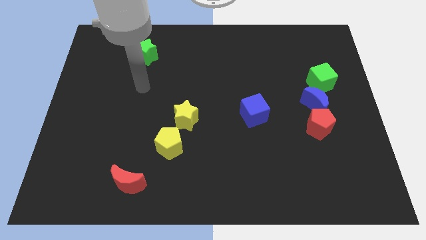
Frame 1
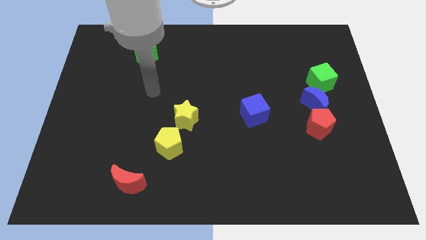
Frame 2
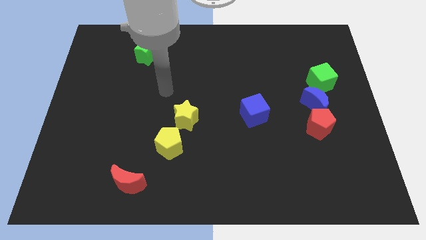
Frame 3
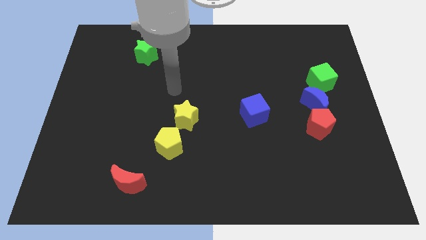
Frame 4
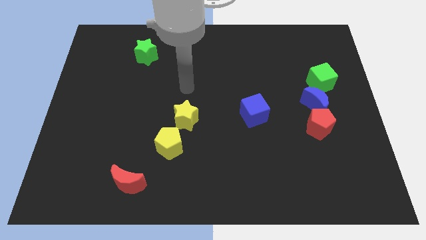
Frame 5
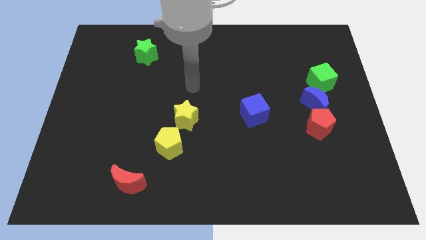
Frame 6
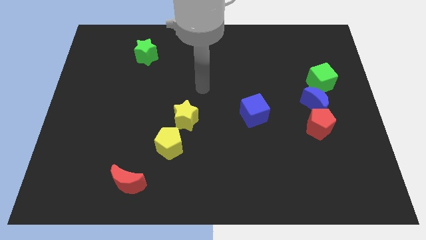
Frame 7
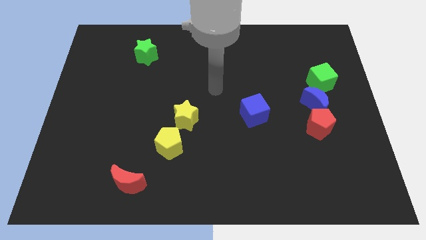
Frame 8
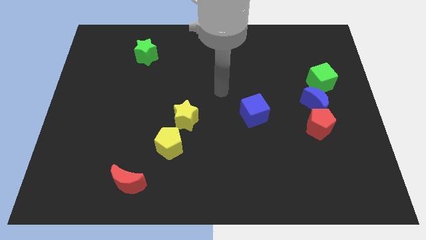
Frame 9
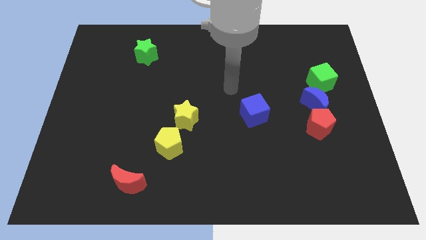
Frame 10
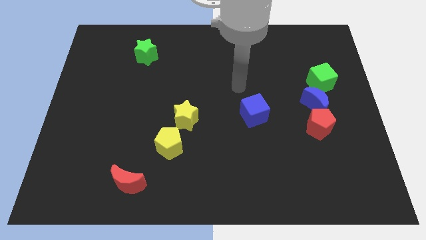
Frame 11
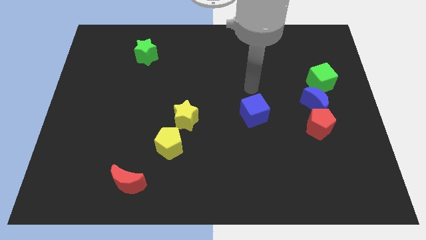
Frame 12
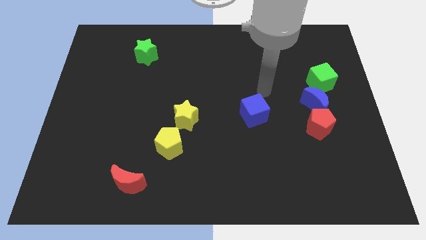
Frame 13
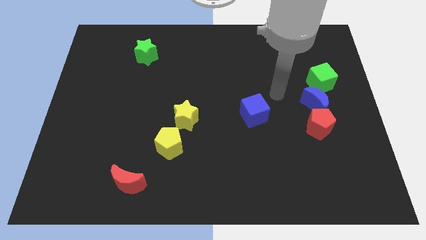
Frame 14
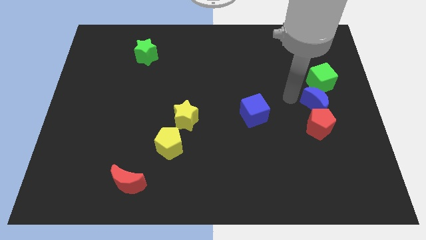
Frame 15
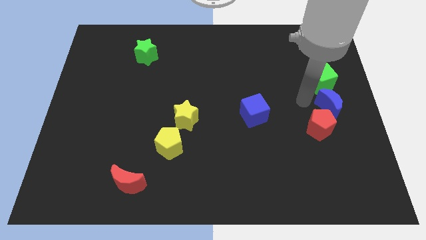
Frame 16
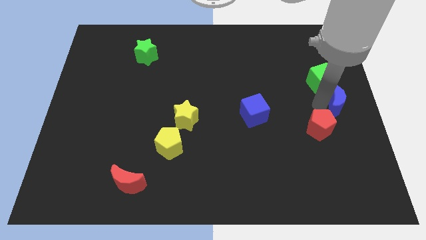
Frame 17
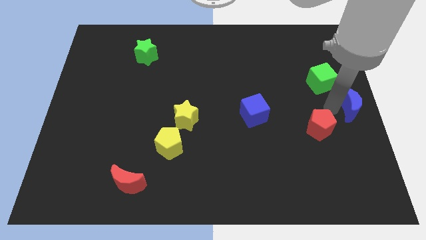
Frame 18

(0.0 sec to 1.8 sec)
pull the red pentagon apart from the blue moon

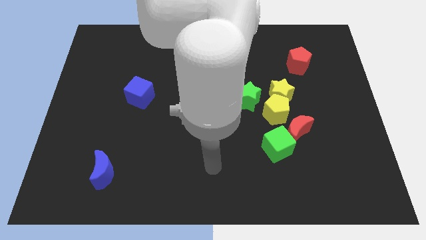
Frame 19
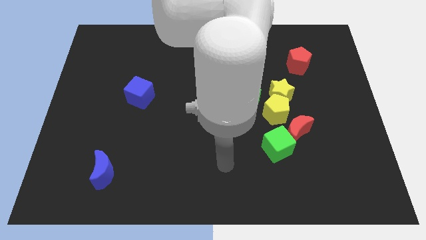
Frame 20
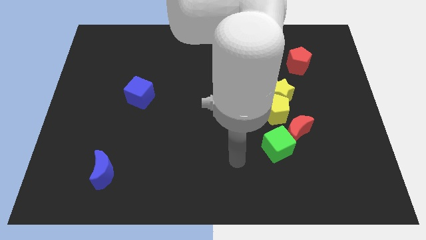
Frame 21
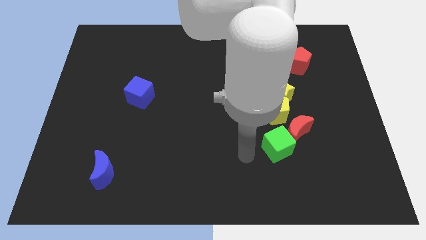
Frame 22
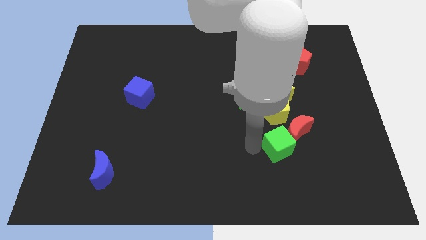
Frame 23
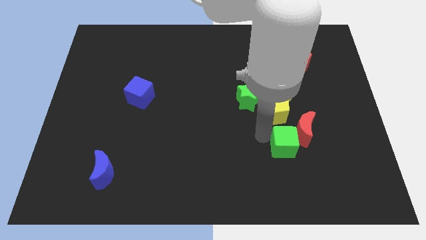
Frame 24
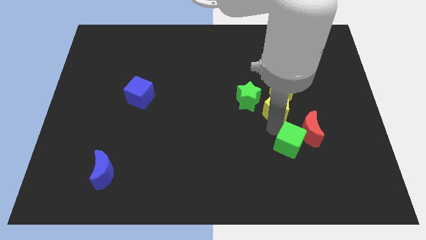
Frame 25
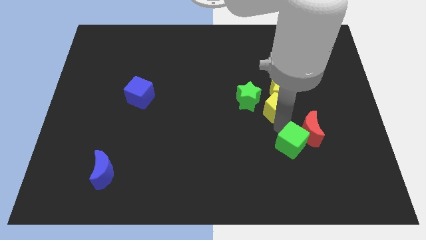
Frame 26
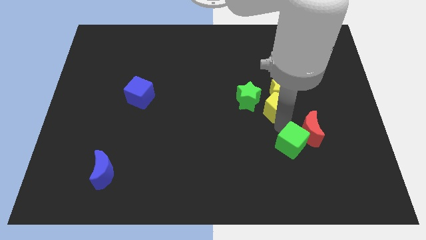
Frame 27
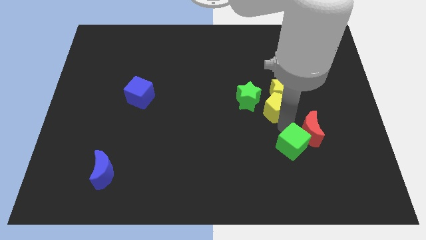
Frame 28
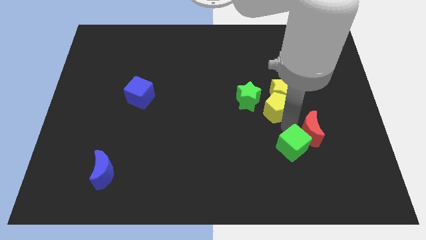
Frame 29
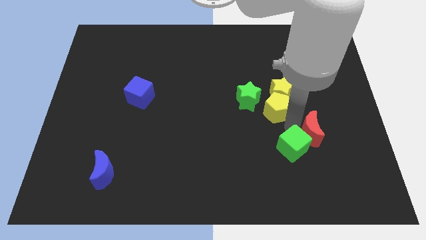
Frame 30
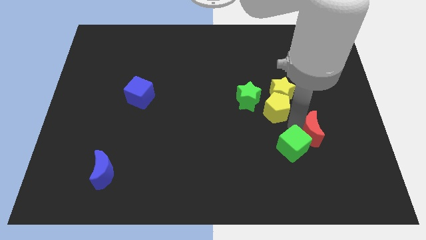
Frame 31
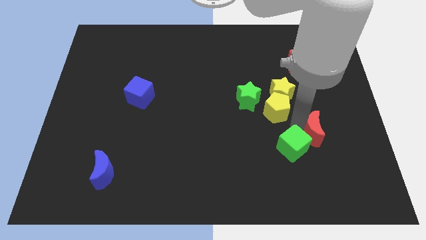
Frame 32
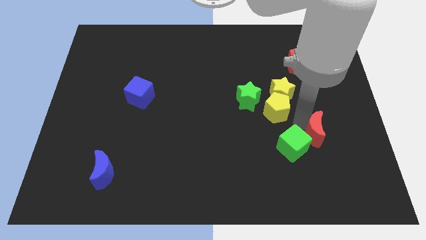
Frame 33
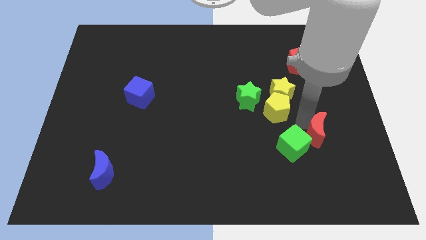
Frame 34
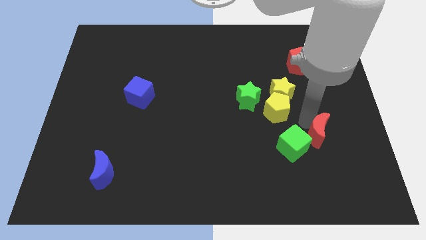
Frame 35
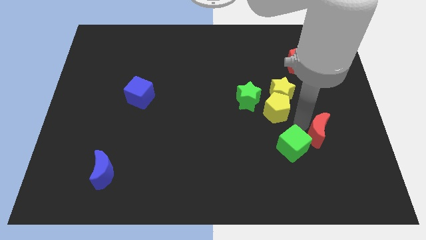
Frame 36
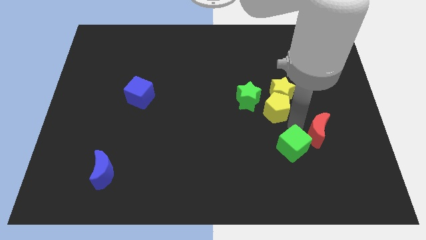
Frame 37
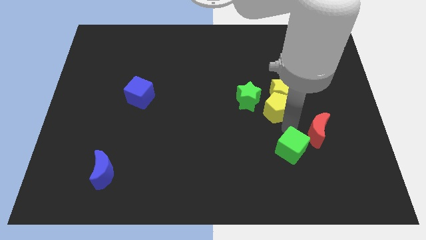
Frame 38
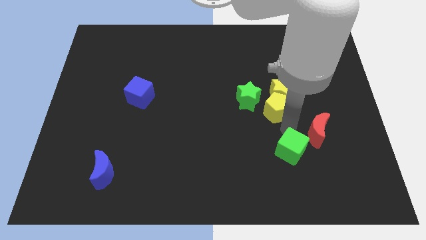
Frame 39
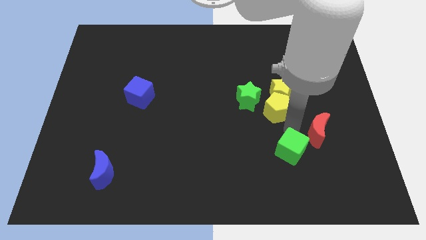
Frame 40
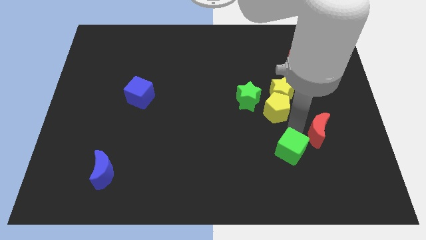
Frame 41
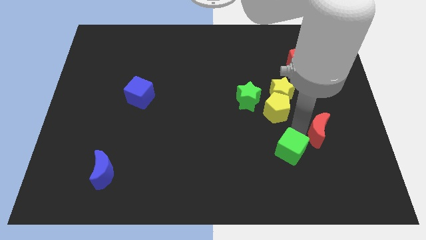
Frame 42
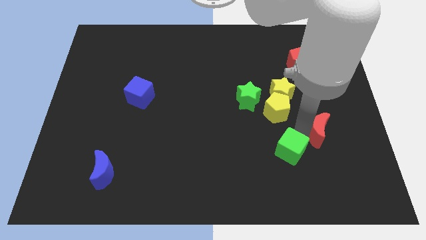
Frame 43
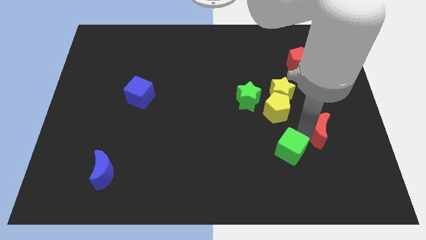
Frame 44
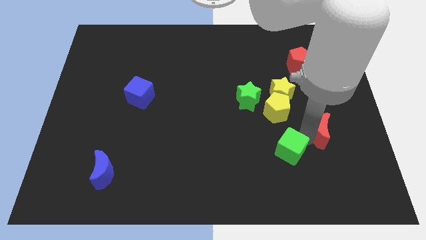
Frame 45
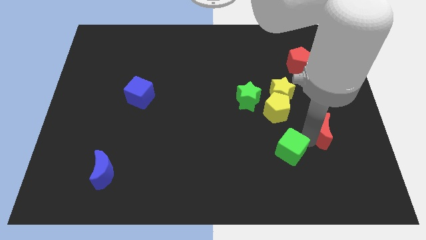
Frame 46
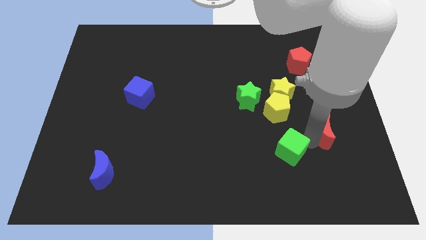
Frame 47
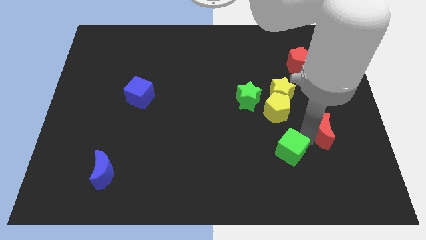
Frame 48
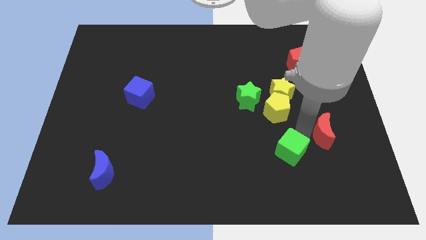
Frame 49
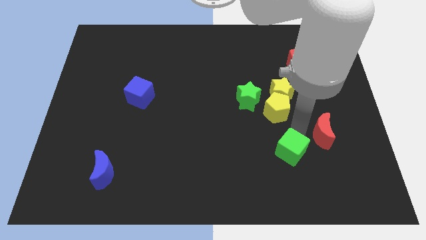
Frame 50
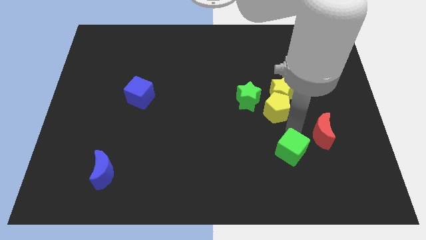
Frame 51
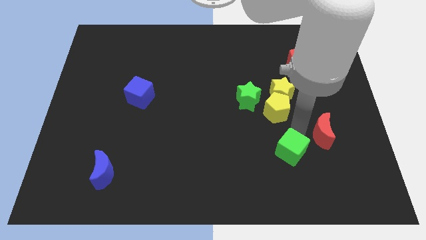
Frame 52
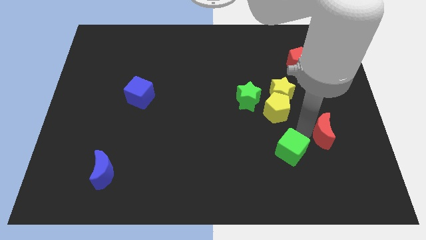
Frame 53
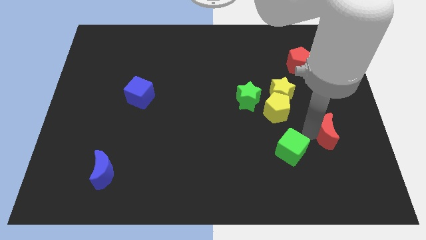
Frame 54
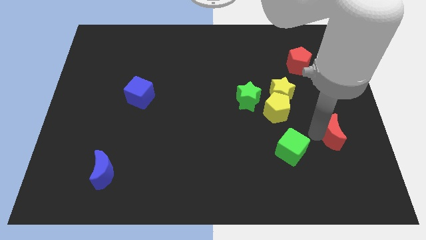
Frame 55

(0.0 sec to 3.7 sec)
move the red moon away from the green cube and yellow pentagon

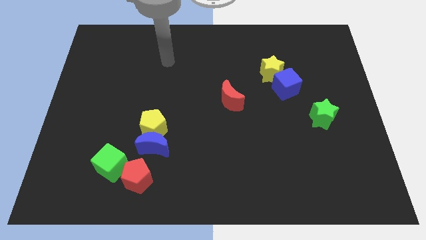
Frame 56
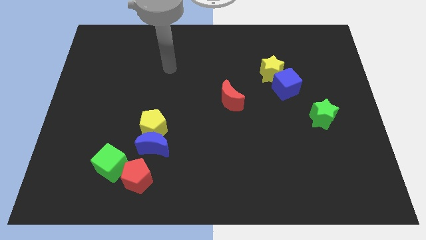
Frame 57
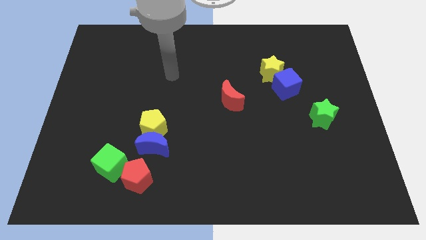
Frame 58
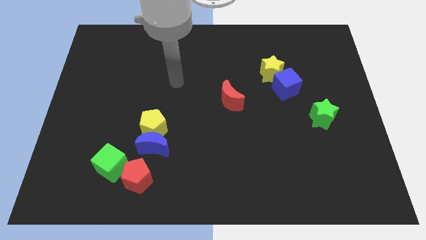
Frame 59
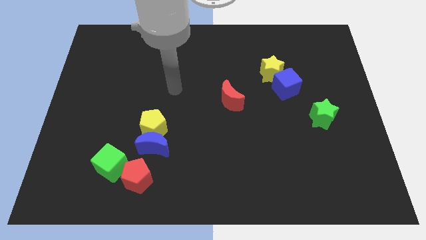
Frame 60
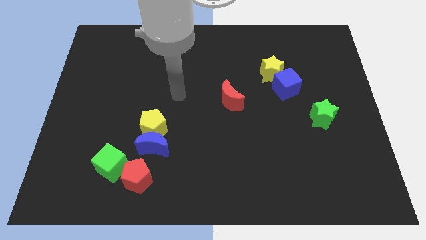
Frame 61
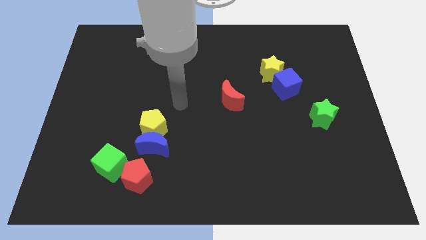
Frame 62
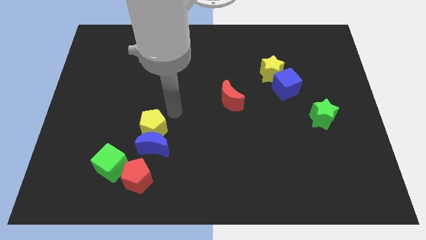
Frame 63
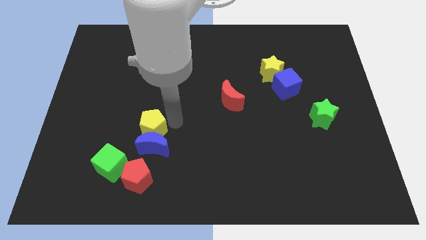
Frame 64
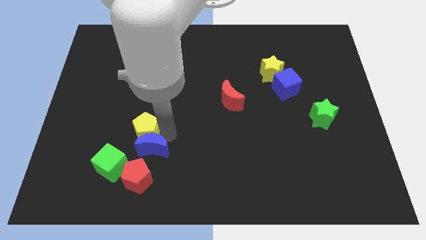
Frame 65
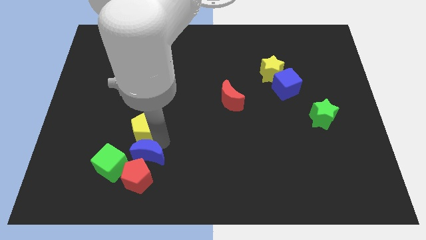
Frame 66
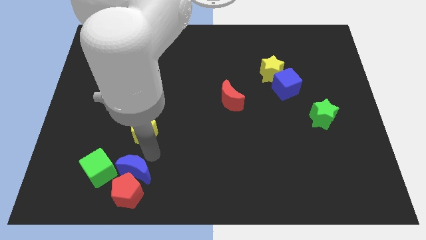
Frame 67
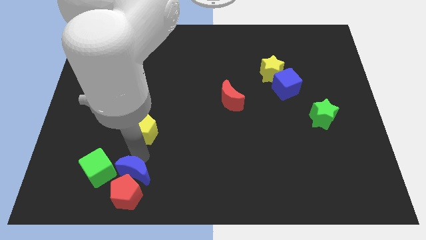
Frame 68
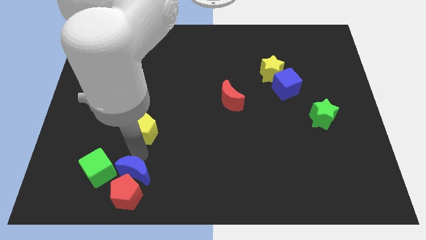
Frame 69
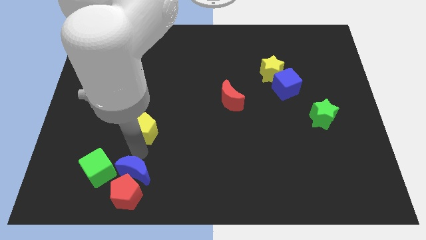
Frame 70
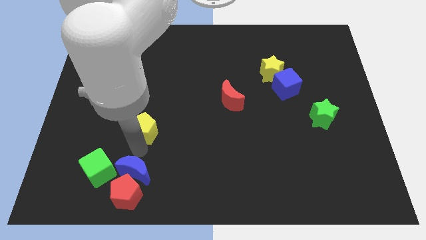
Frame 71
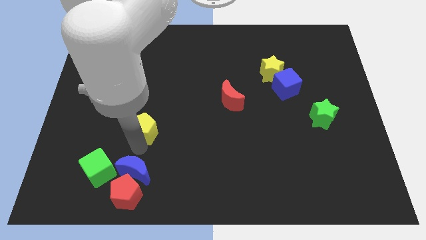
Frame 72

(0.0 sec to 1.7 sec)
separate the yellow pentagon from the blue moon

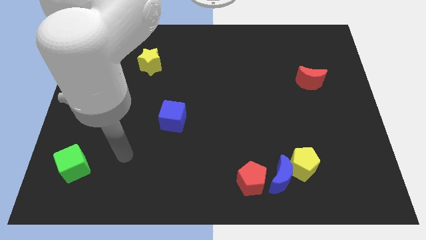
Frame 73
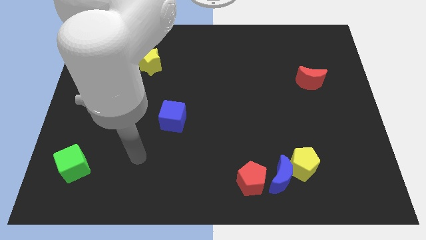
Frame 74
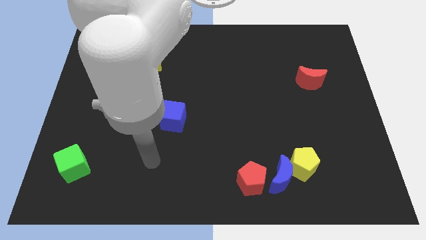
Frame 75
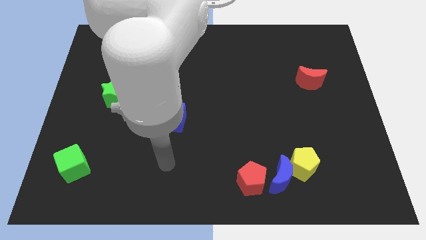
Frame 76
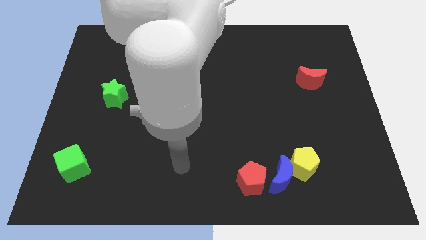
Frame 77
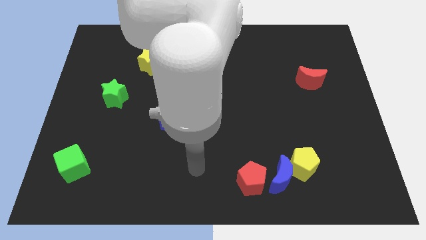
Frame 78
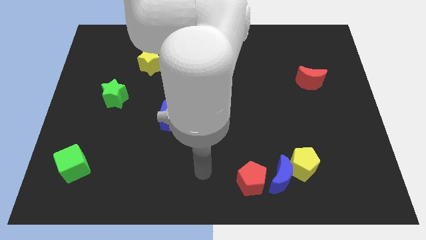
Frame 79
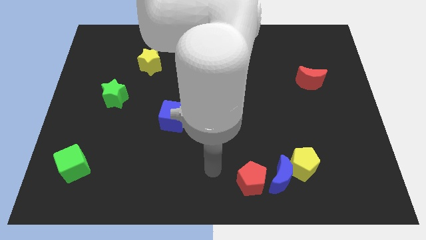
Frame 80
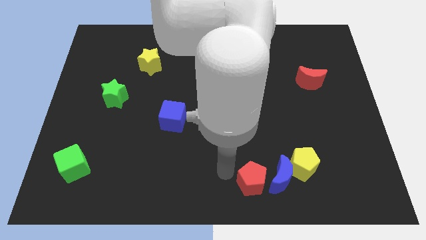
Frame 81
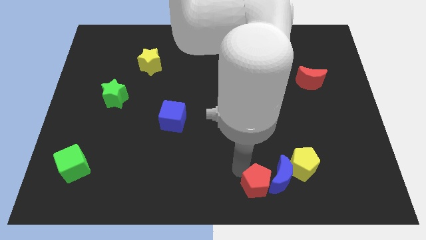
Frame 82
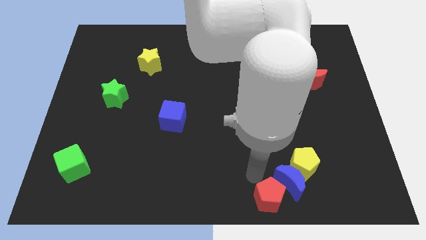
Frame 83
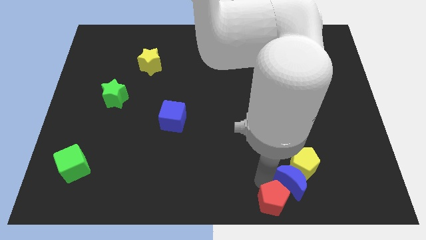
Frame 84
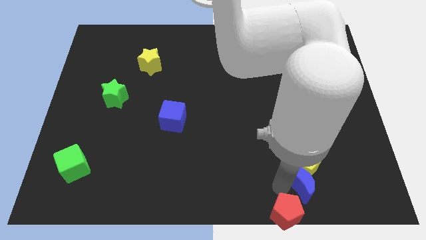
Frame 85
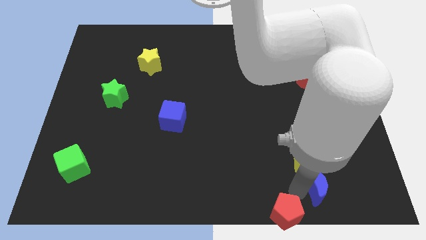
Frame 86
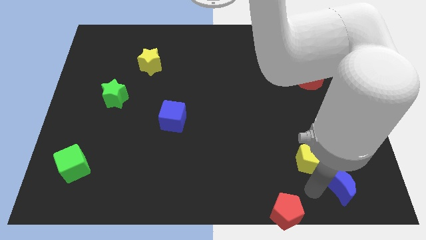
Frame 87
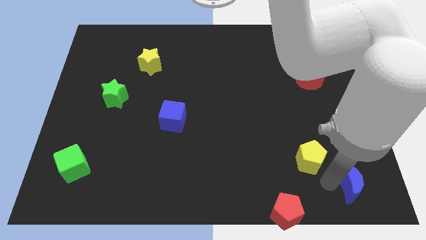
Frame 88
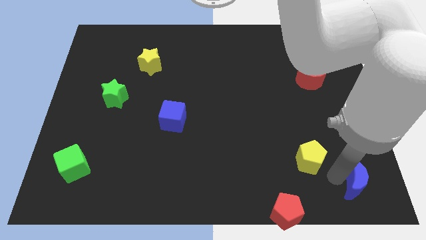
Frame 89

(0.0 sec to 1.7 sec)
move the yellow pentagon away from the blue moon
